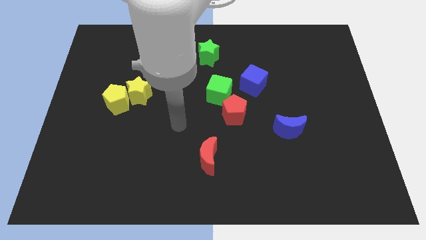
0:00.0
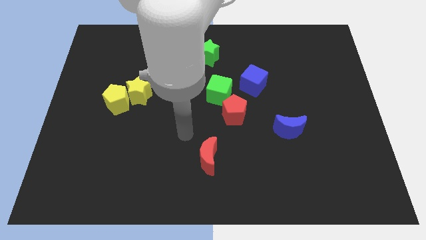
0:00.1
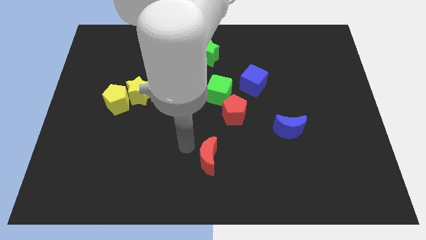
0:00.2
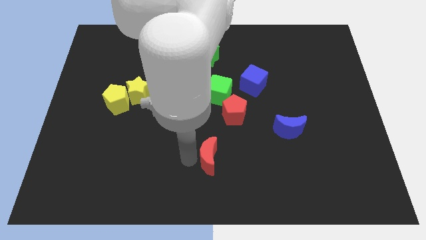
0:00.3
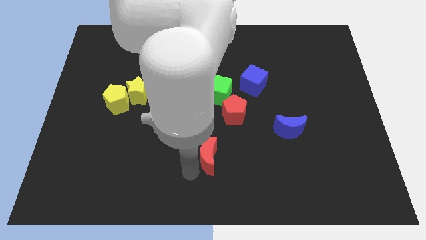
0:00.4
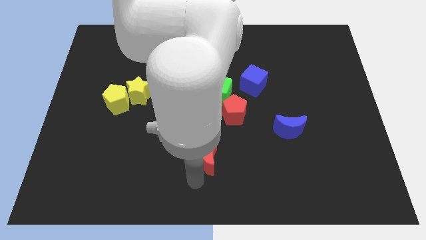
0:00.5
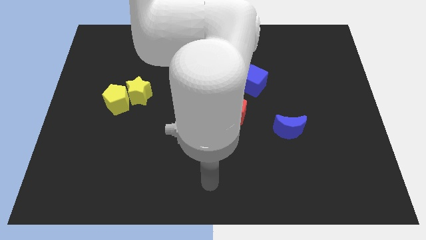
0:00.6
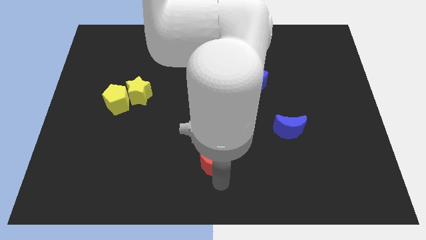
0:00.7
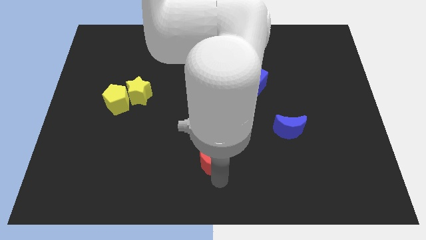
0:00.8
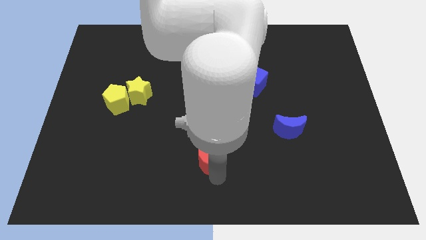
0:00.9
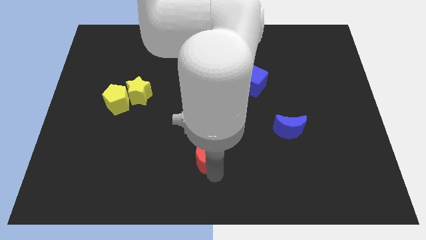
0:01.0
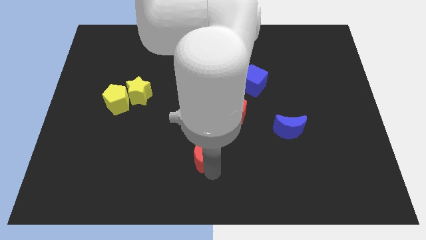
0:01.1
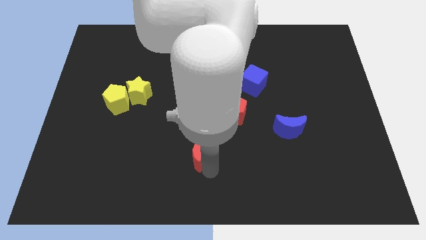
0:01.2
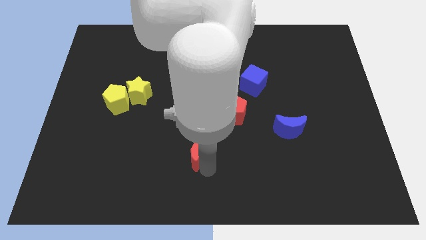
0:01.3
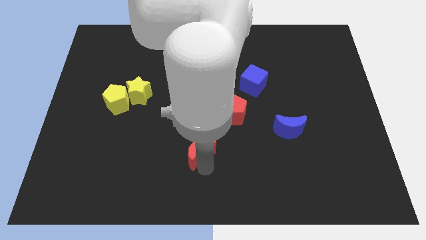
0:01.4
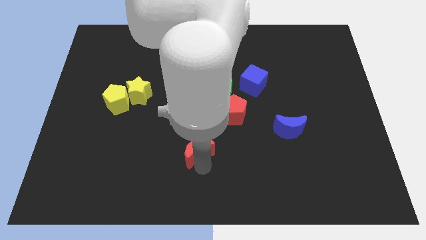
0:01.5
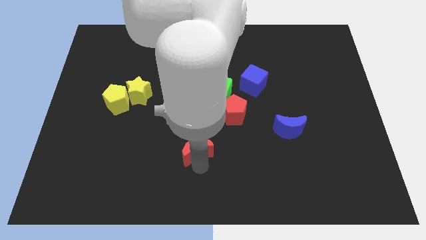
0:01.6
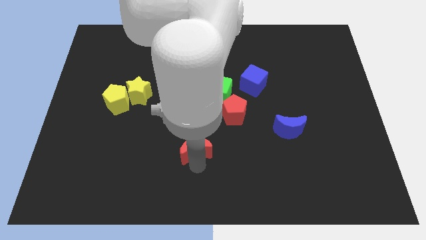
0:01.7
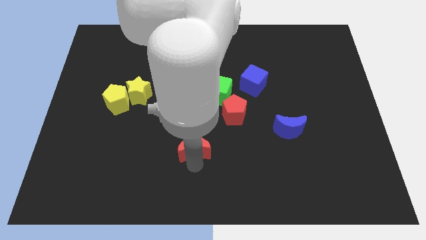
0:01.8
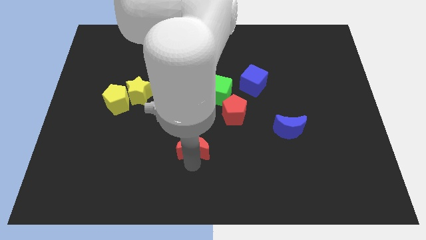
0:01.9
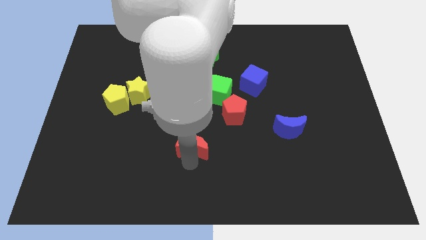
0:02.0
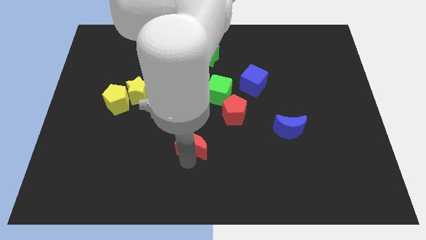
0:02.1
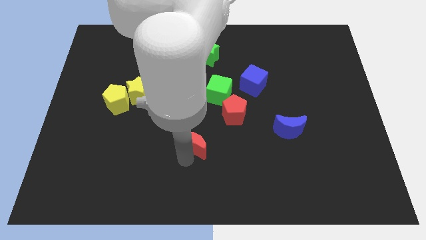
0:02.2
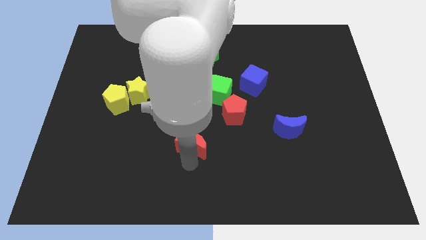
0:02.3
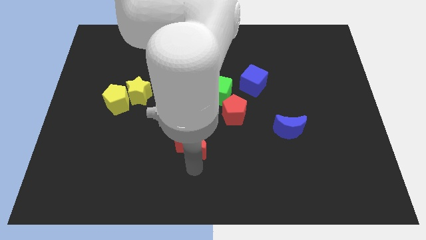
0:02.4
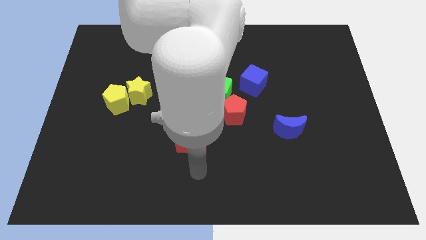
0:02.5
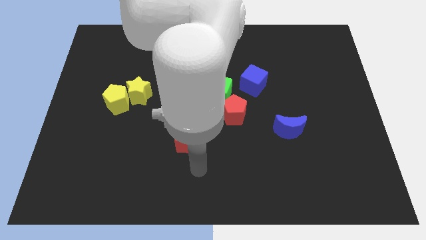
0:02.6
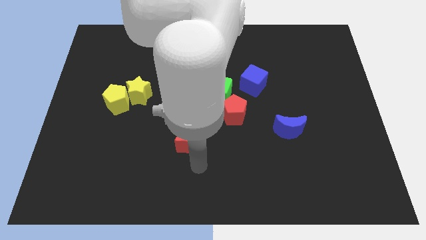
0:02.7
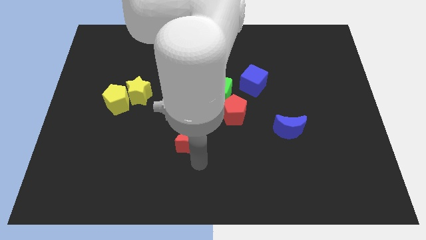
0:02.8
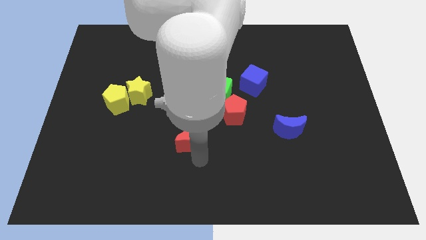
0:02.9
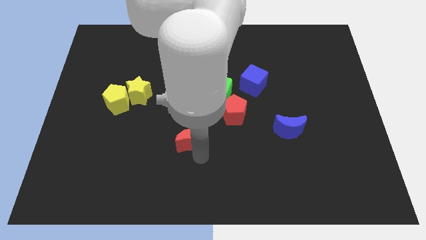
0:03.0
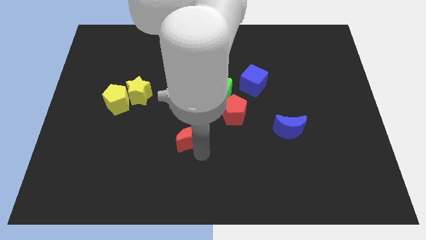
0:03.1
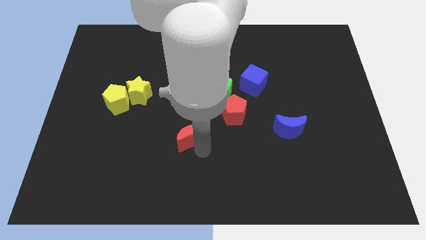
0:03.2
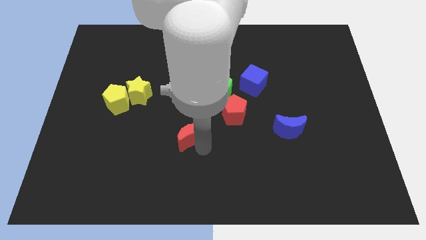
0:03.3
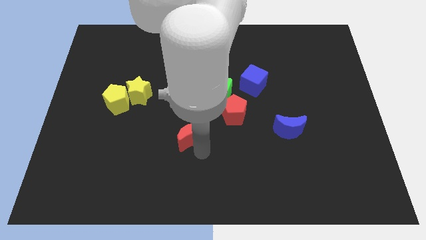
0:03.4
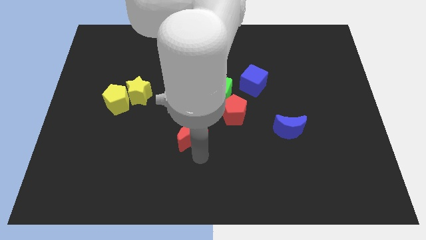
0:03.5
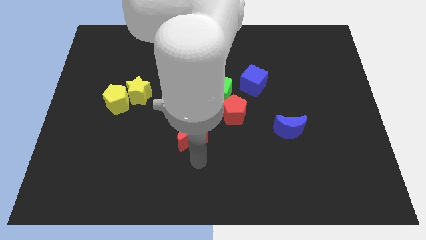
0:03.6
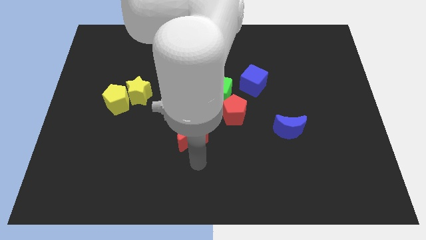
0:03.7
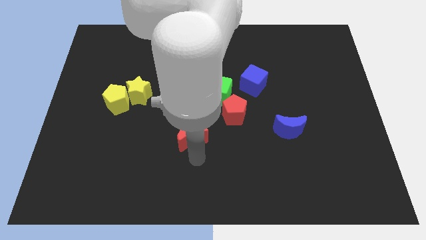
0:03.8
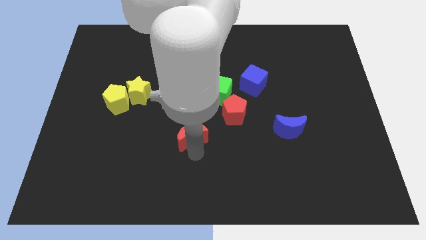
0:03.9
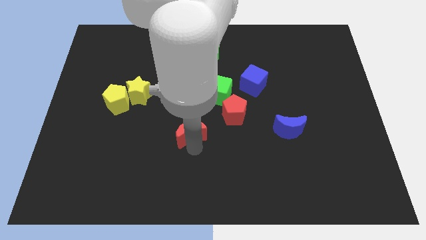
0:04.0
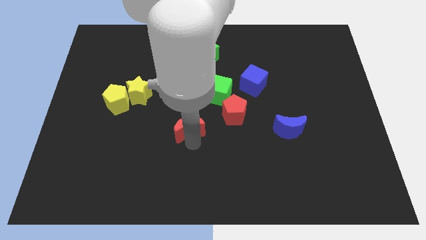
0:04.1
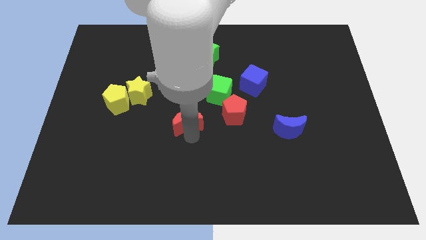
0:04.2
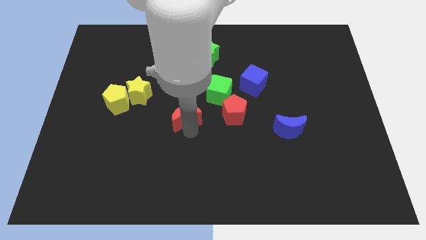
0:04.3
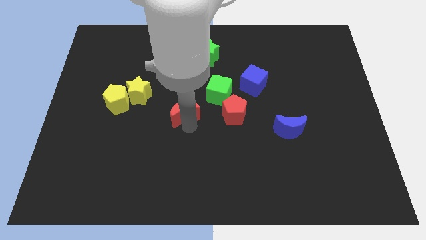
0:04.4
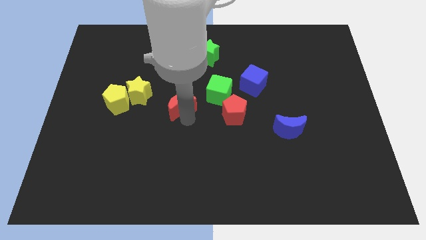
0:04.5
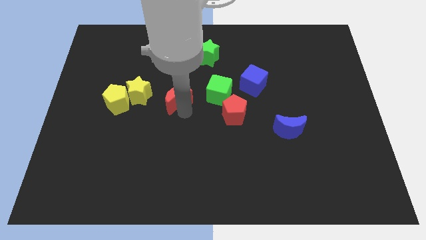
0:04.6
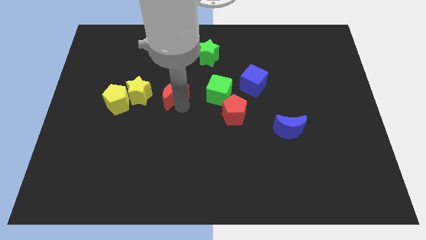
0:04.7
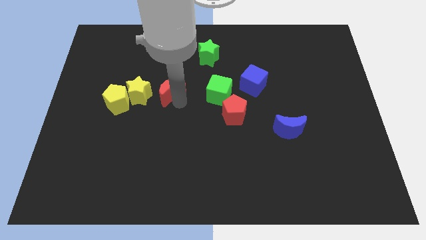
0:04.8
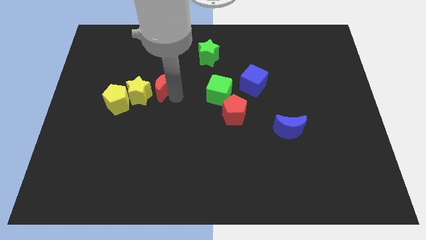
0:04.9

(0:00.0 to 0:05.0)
slide the red moon diagonally up and to the left

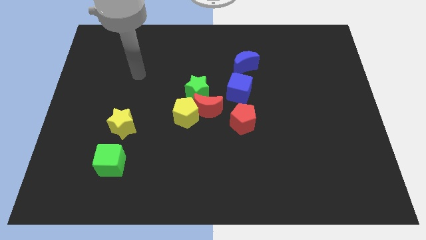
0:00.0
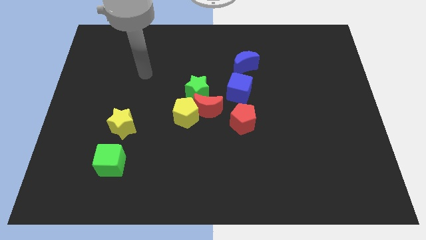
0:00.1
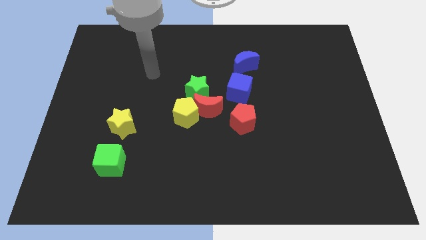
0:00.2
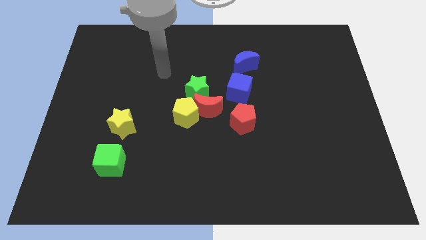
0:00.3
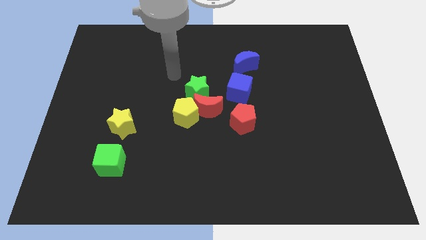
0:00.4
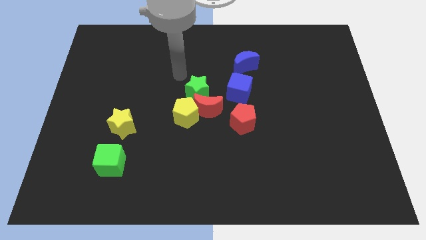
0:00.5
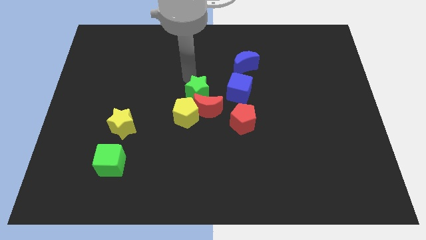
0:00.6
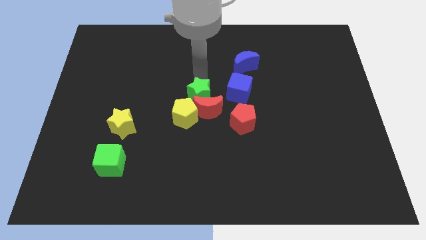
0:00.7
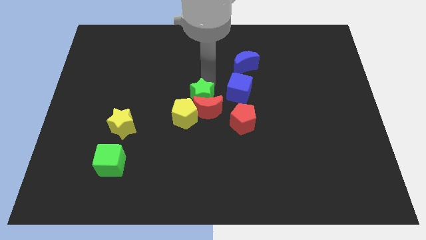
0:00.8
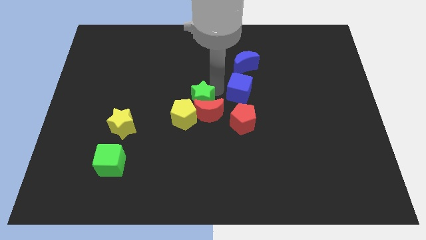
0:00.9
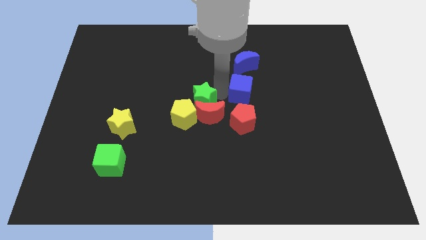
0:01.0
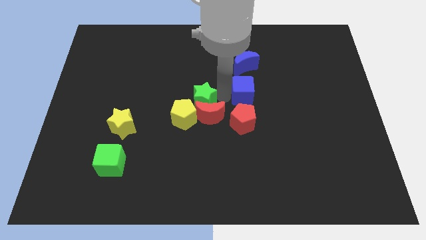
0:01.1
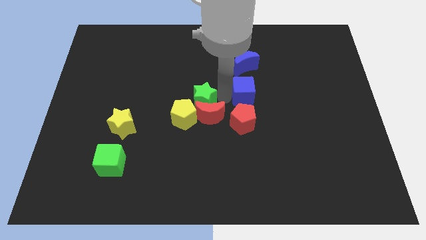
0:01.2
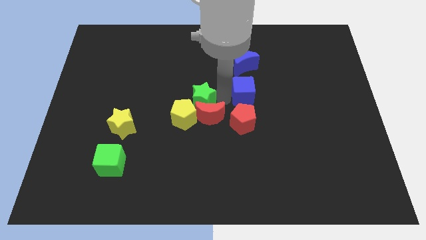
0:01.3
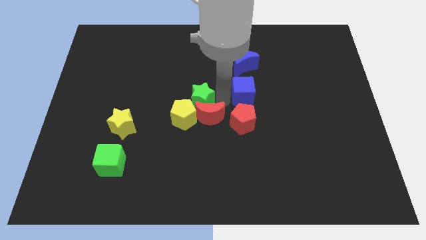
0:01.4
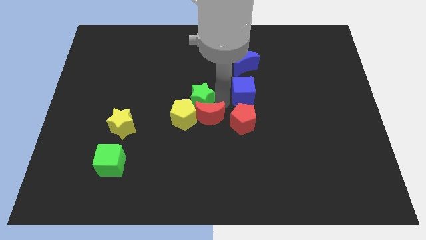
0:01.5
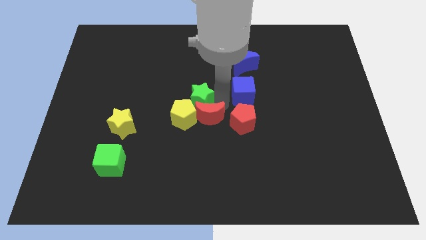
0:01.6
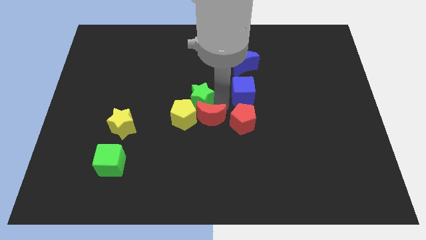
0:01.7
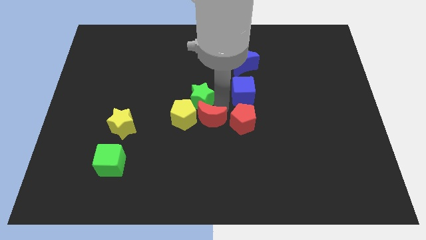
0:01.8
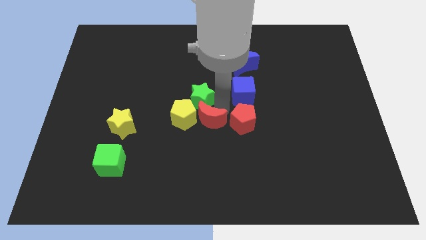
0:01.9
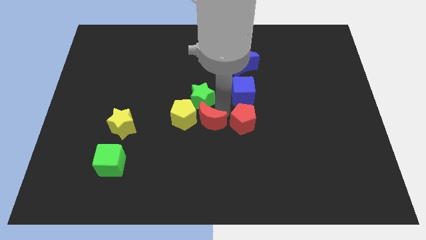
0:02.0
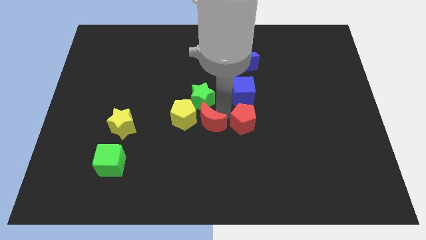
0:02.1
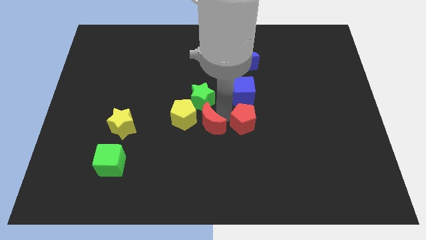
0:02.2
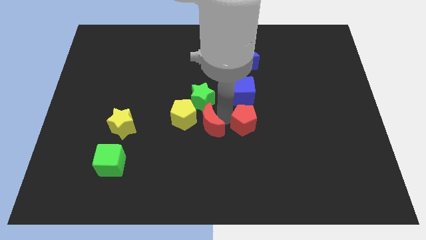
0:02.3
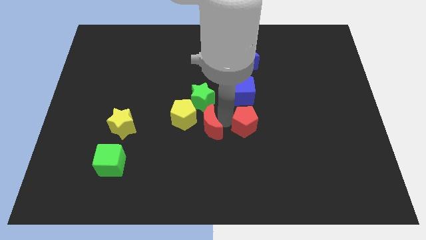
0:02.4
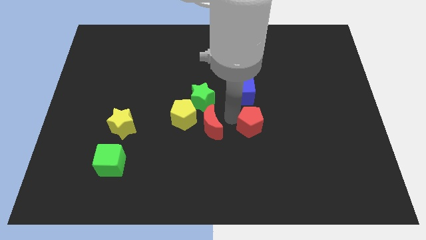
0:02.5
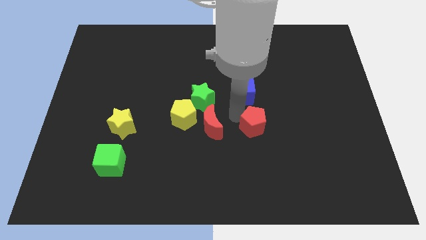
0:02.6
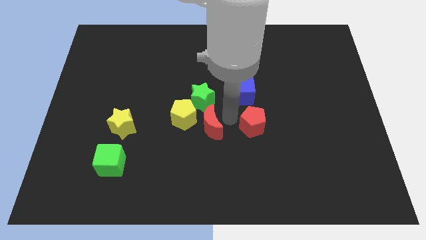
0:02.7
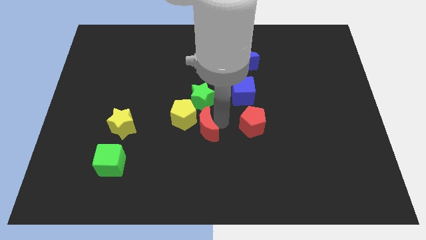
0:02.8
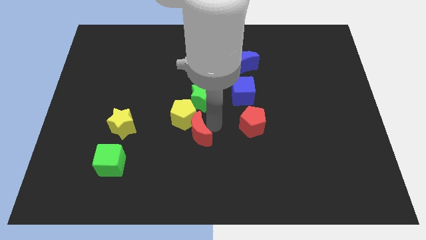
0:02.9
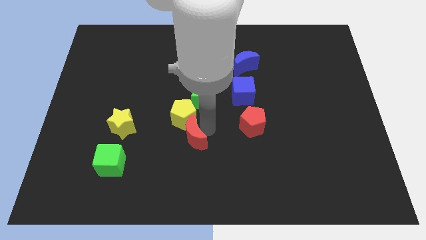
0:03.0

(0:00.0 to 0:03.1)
move the red moon diagonally down and left a bit
